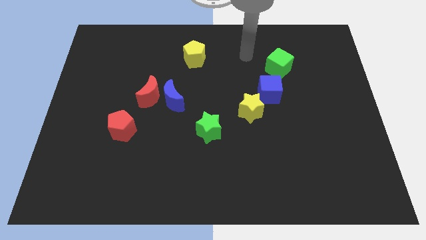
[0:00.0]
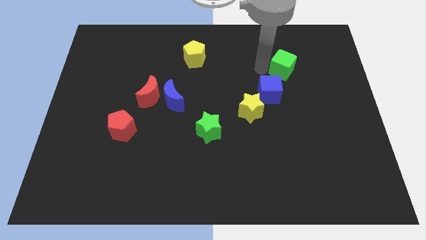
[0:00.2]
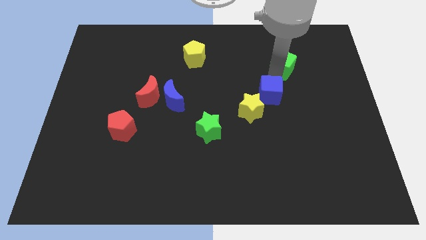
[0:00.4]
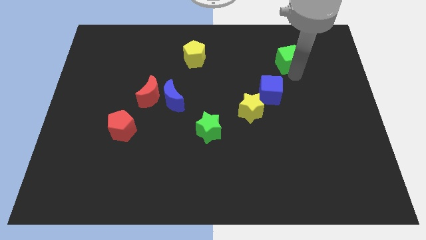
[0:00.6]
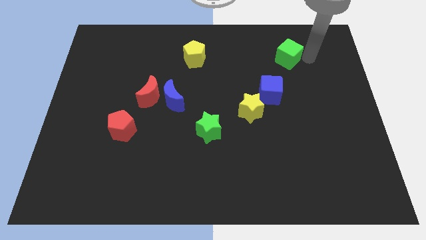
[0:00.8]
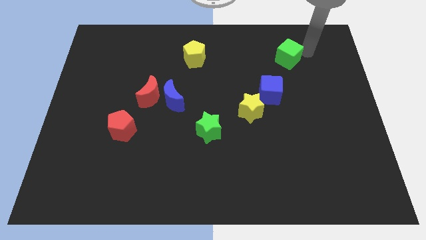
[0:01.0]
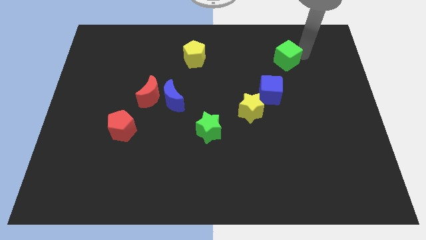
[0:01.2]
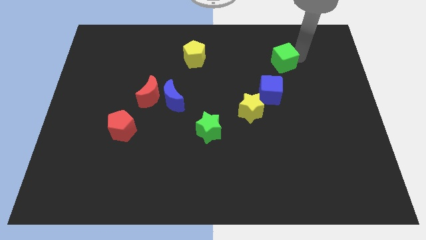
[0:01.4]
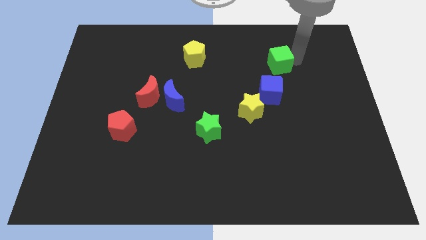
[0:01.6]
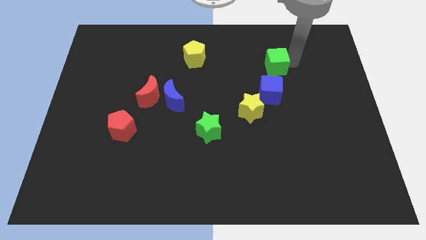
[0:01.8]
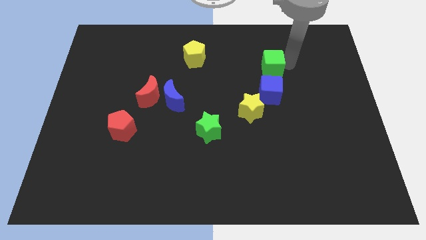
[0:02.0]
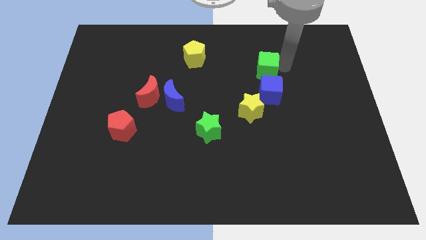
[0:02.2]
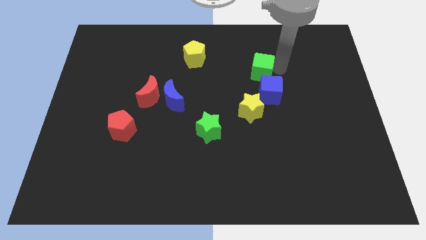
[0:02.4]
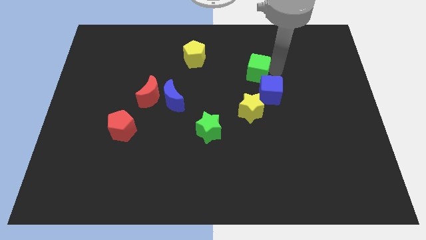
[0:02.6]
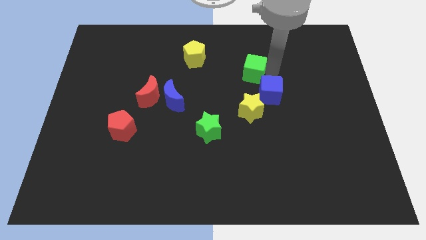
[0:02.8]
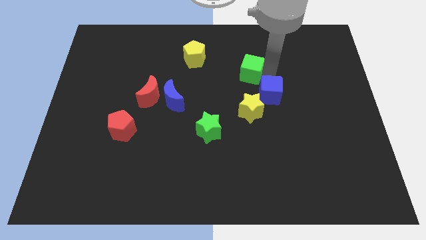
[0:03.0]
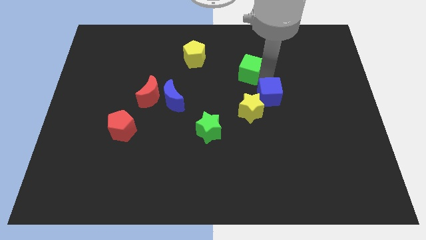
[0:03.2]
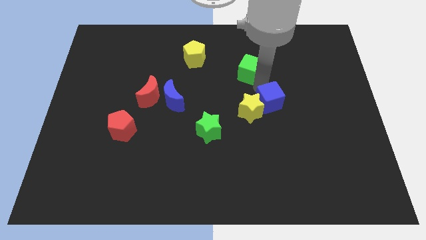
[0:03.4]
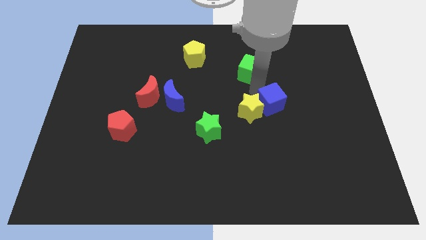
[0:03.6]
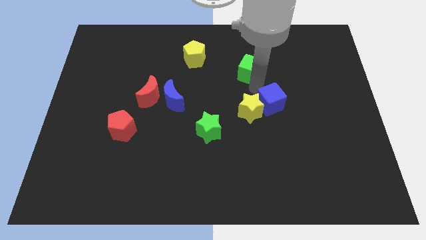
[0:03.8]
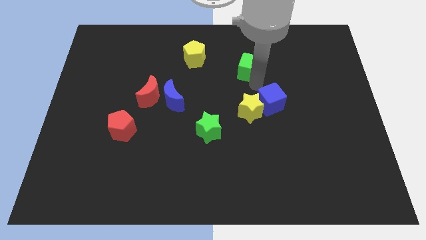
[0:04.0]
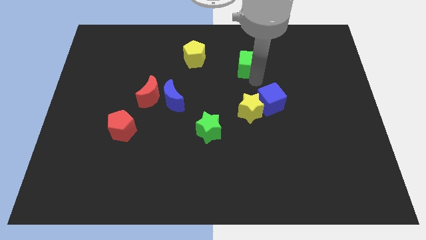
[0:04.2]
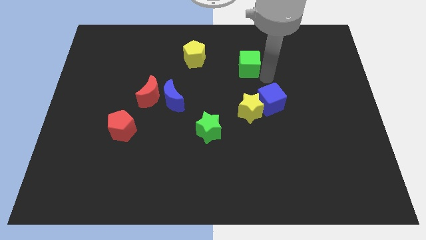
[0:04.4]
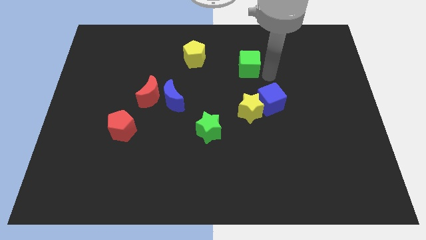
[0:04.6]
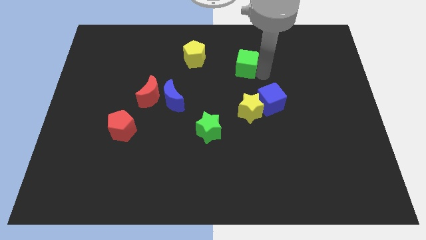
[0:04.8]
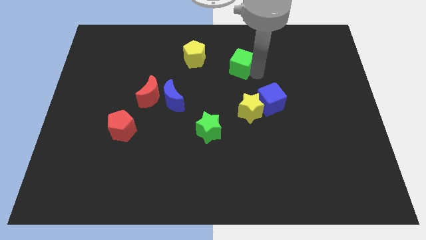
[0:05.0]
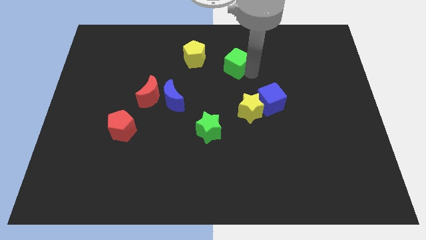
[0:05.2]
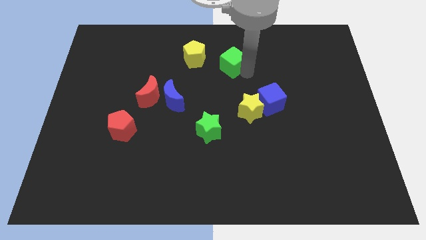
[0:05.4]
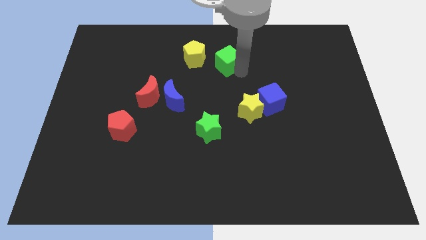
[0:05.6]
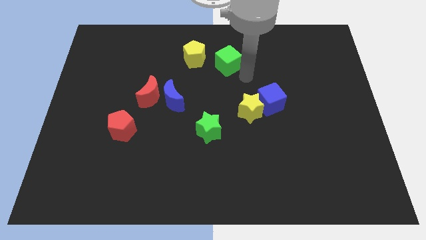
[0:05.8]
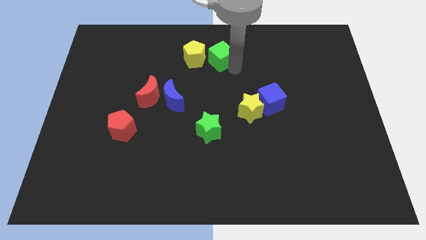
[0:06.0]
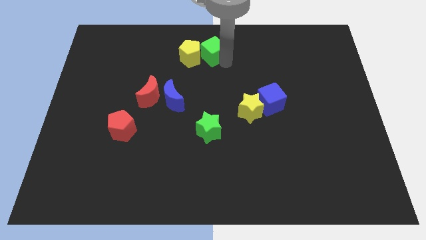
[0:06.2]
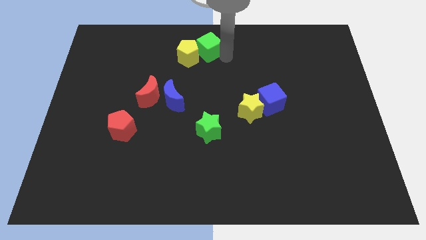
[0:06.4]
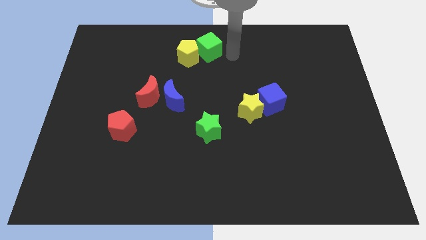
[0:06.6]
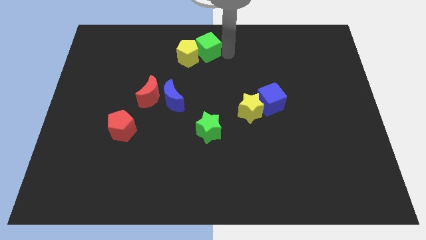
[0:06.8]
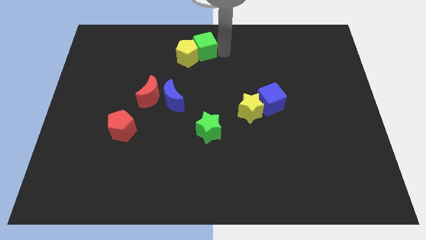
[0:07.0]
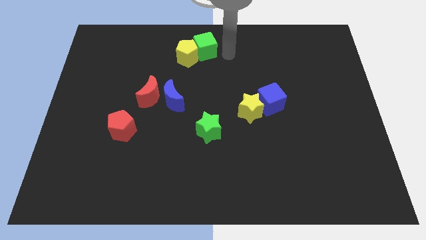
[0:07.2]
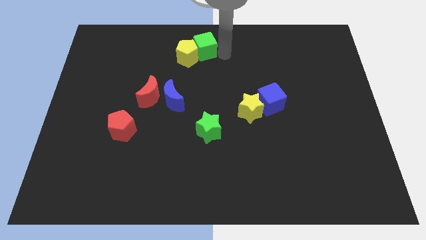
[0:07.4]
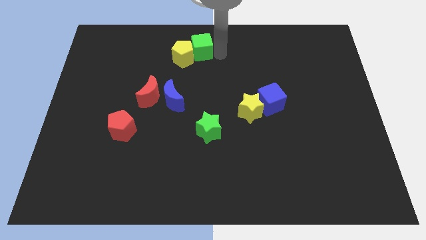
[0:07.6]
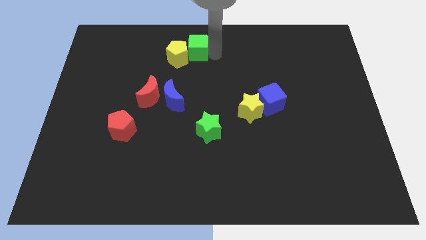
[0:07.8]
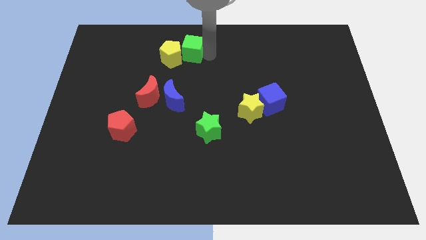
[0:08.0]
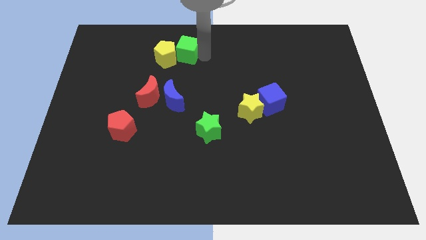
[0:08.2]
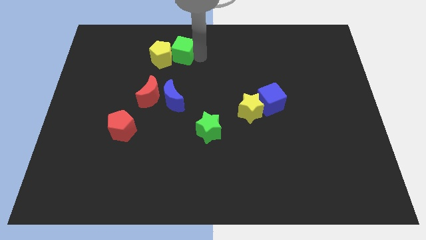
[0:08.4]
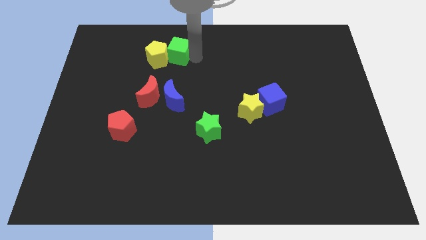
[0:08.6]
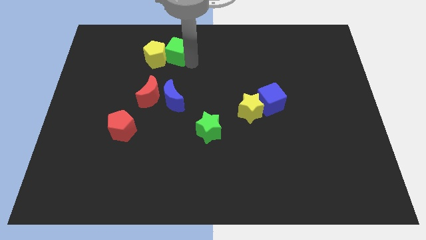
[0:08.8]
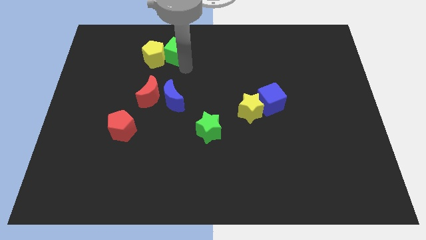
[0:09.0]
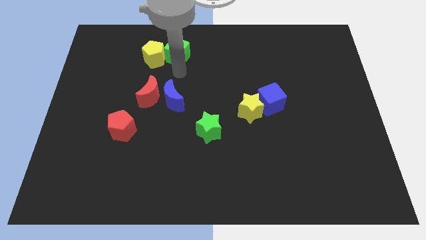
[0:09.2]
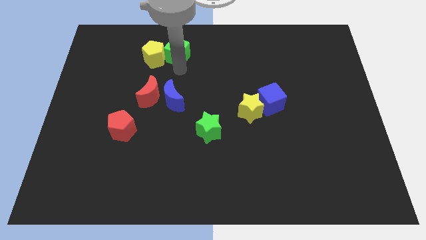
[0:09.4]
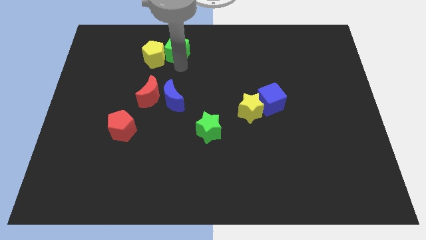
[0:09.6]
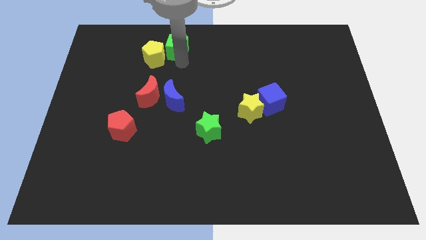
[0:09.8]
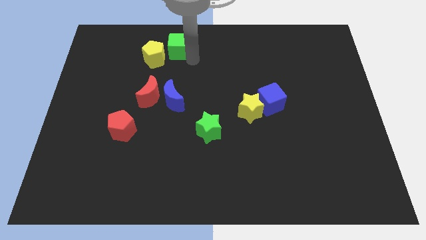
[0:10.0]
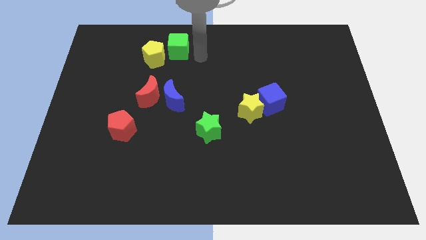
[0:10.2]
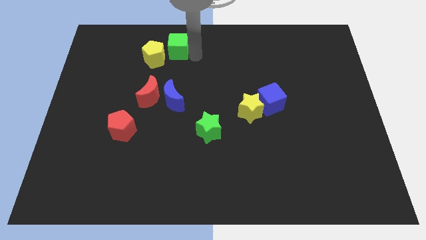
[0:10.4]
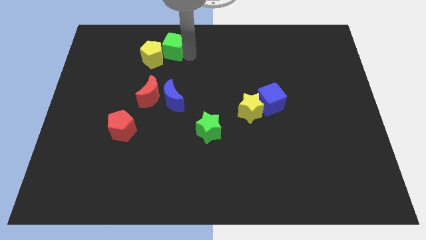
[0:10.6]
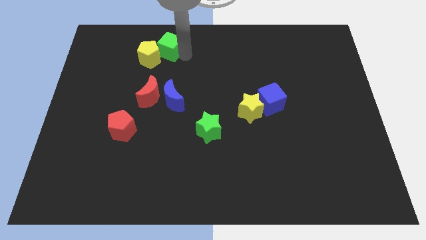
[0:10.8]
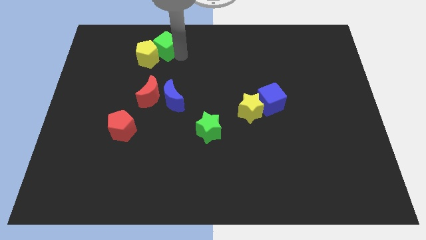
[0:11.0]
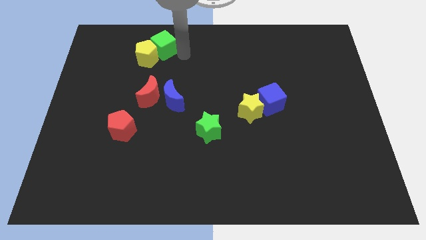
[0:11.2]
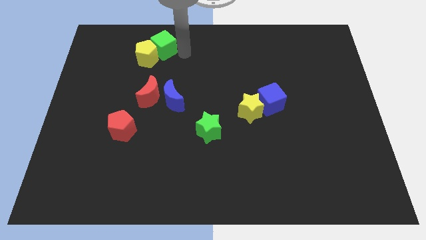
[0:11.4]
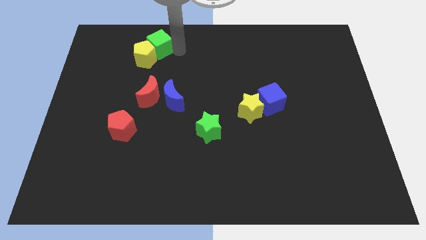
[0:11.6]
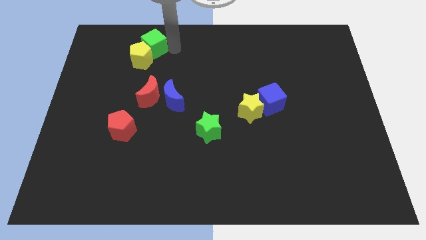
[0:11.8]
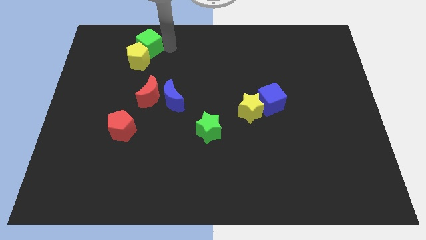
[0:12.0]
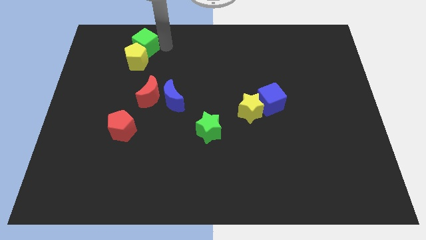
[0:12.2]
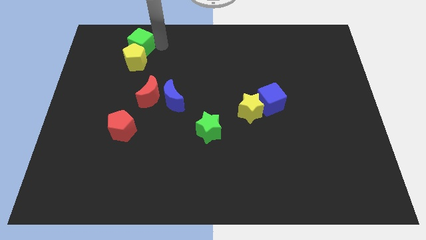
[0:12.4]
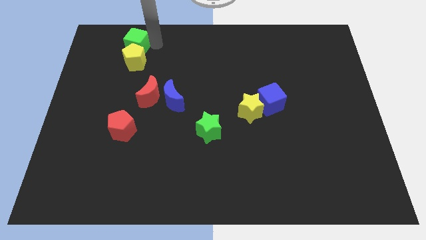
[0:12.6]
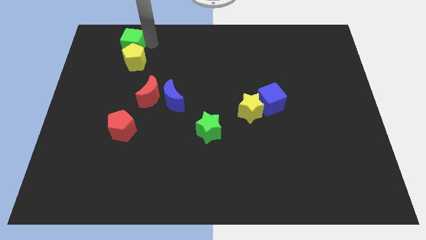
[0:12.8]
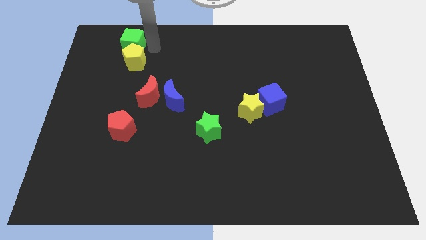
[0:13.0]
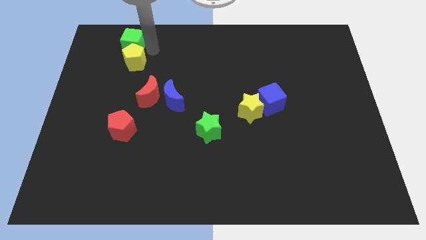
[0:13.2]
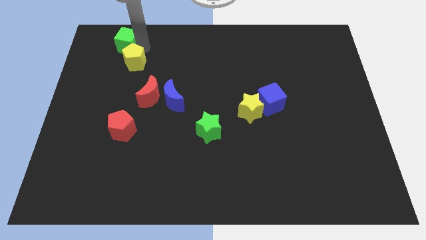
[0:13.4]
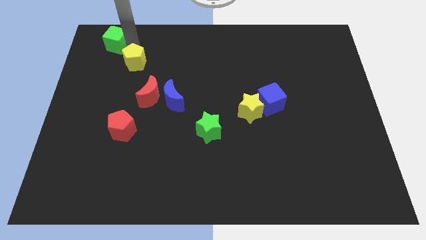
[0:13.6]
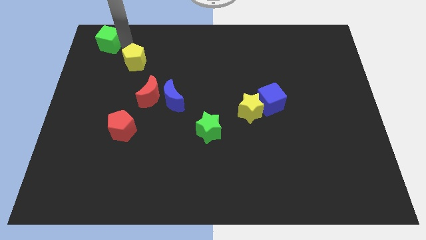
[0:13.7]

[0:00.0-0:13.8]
slide the green cube to the upper left corner
